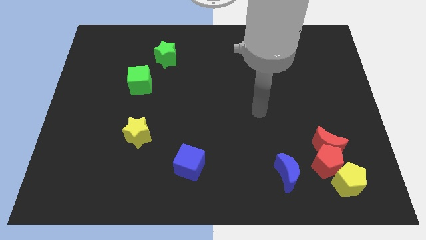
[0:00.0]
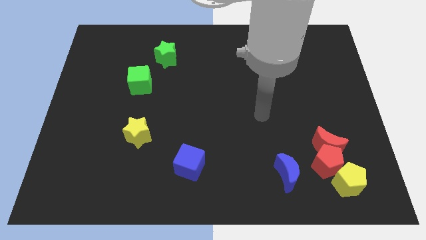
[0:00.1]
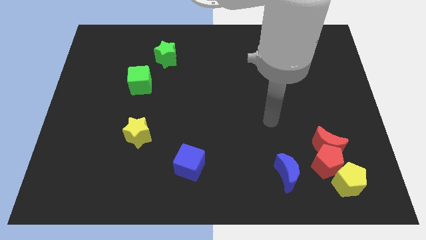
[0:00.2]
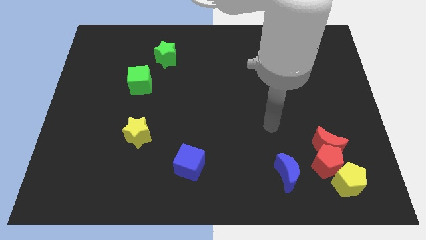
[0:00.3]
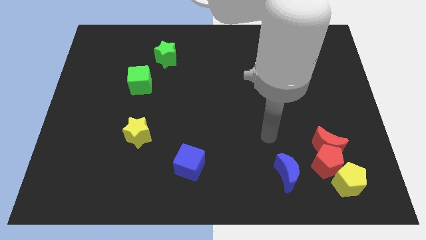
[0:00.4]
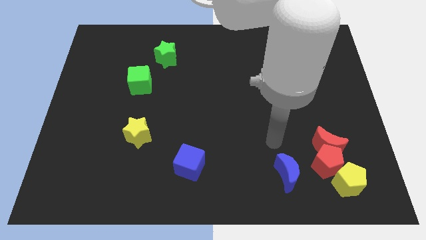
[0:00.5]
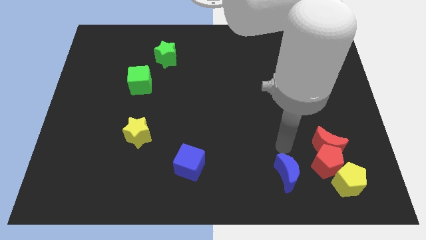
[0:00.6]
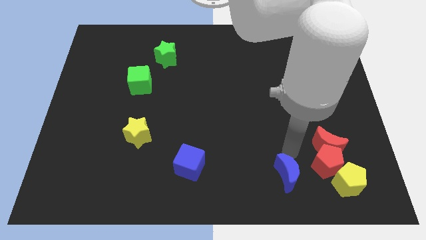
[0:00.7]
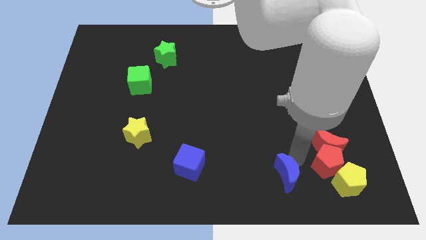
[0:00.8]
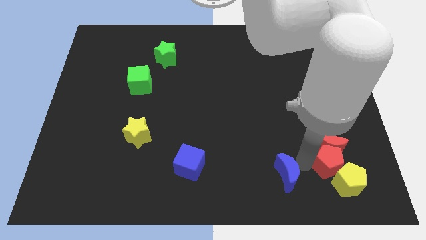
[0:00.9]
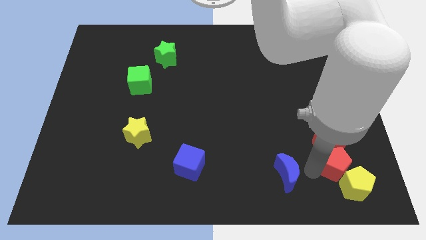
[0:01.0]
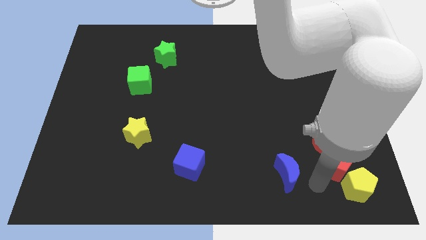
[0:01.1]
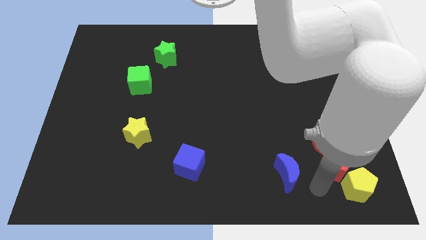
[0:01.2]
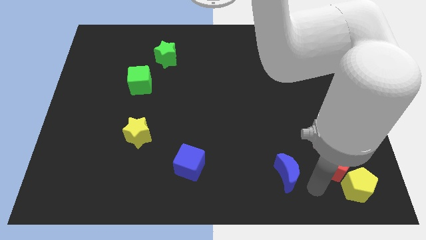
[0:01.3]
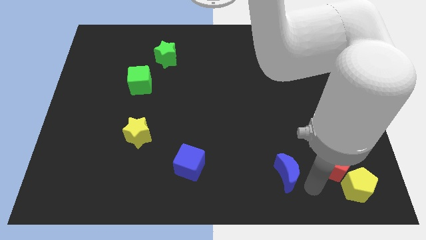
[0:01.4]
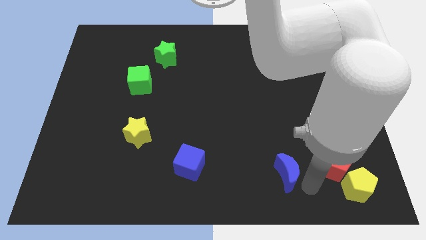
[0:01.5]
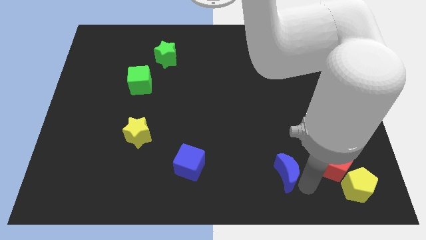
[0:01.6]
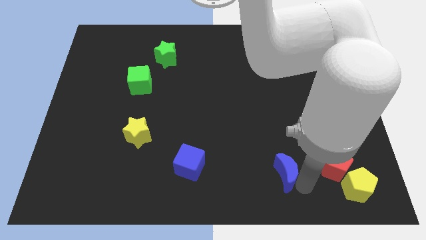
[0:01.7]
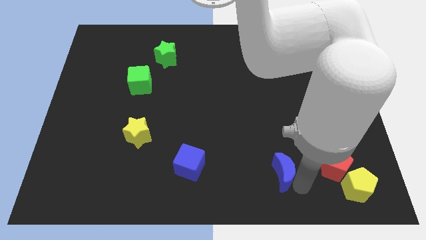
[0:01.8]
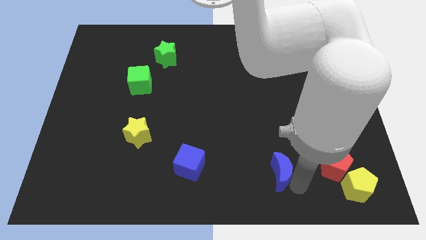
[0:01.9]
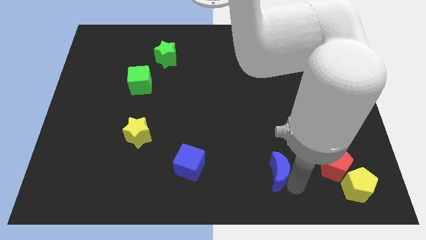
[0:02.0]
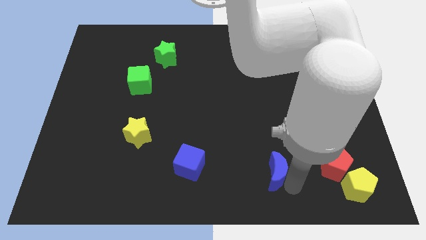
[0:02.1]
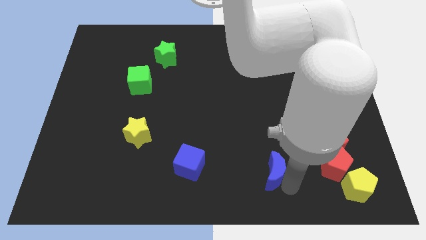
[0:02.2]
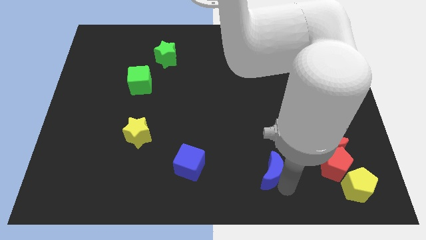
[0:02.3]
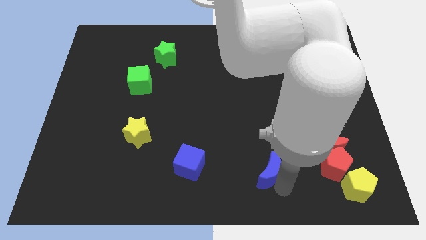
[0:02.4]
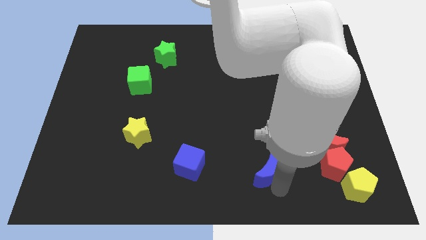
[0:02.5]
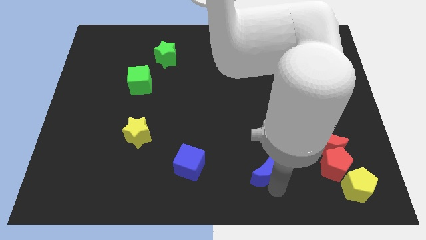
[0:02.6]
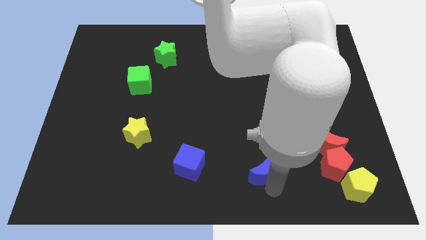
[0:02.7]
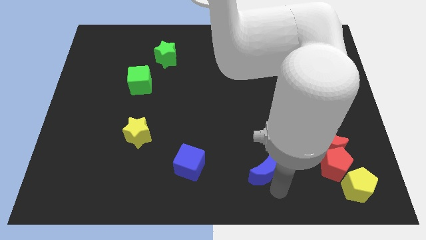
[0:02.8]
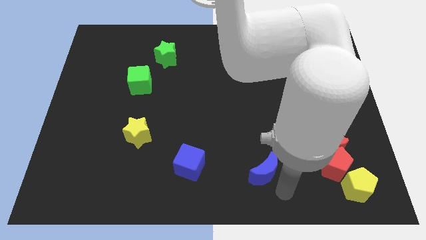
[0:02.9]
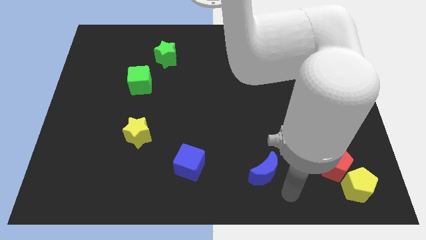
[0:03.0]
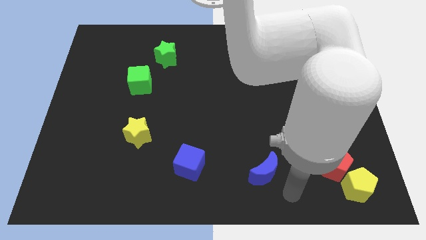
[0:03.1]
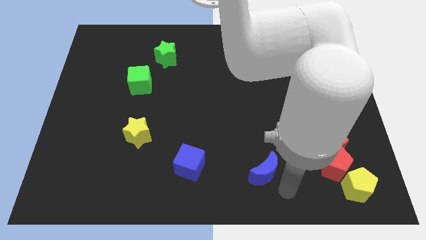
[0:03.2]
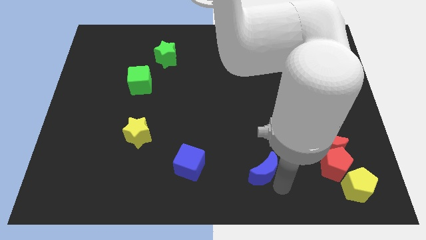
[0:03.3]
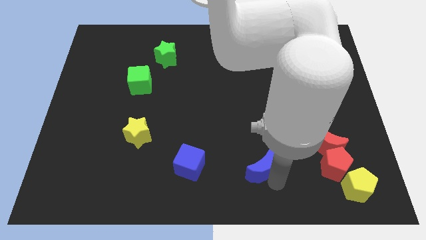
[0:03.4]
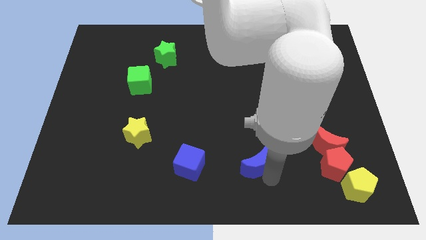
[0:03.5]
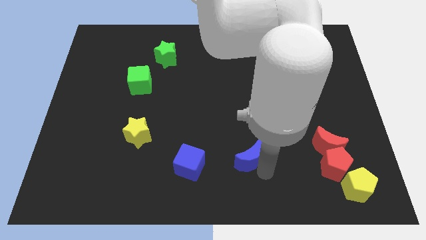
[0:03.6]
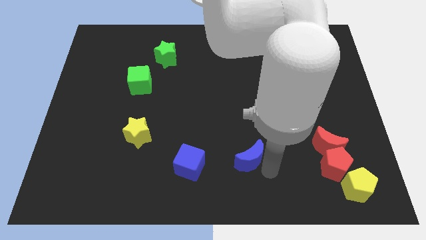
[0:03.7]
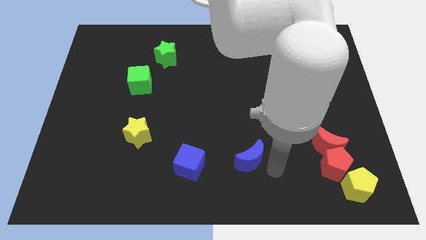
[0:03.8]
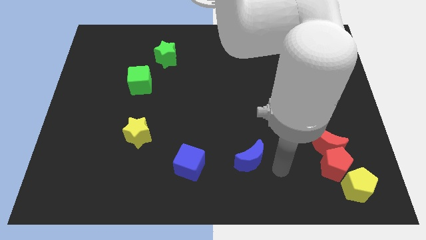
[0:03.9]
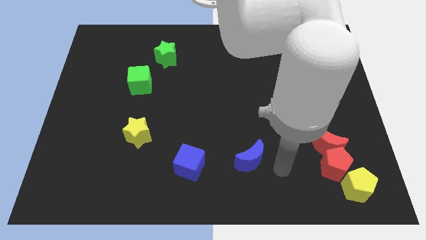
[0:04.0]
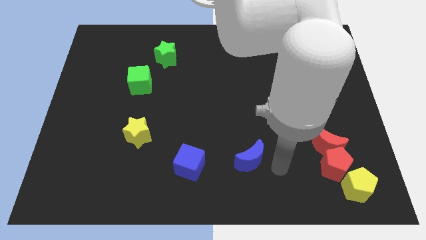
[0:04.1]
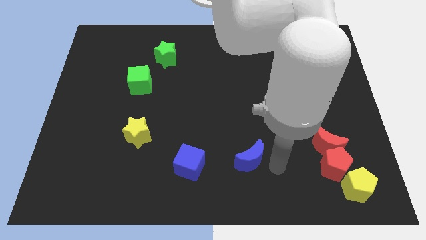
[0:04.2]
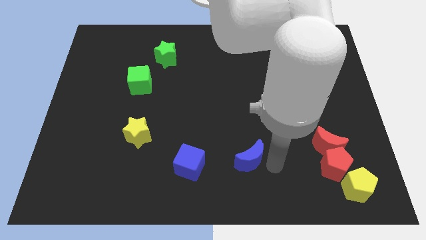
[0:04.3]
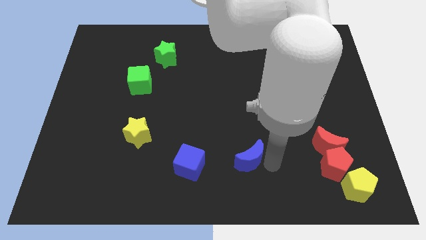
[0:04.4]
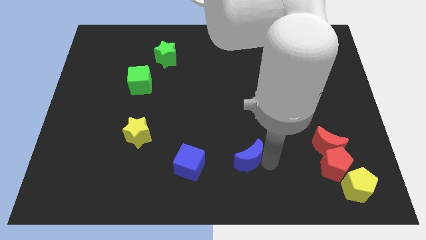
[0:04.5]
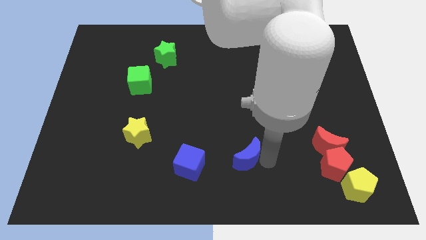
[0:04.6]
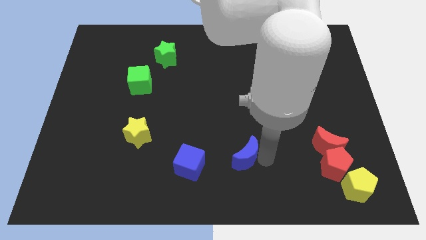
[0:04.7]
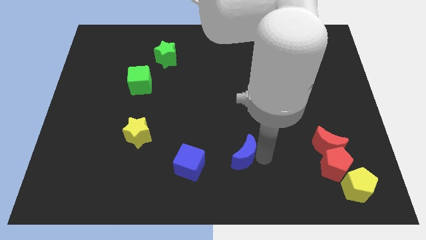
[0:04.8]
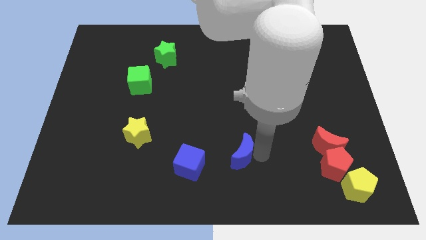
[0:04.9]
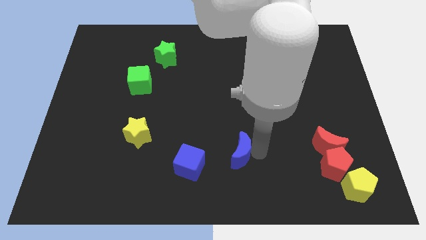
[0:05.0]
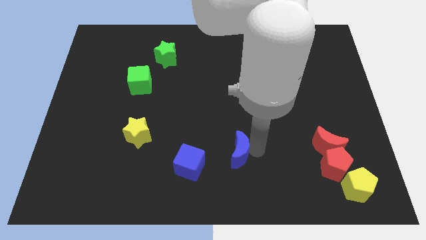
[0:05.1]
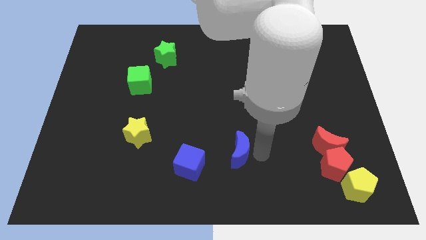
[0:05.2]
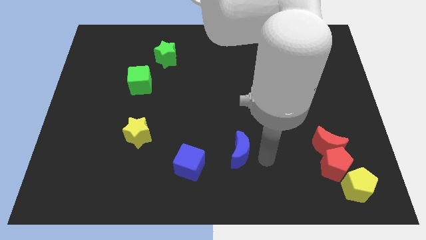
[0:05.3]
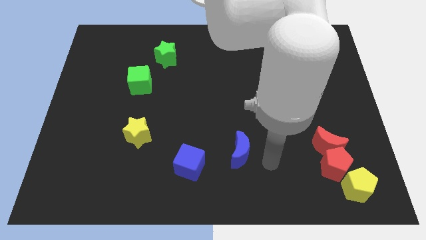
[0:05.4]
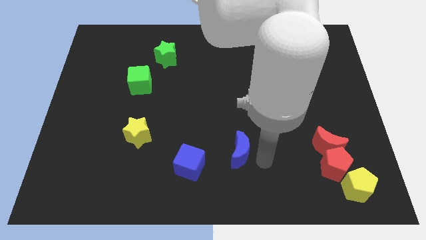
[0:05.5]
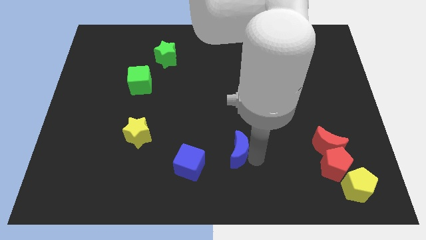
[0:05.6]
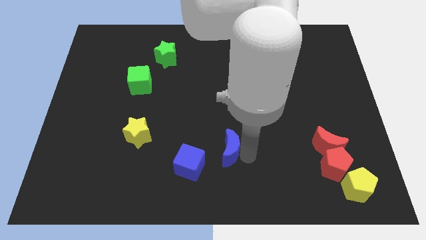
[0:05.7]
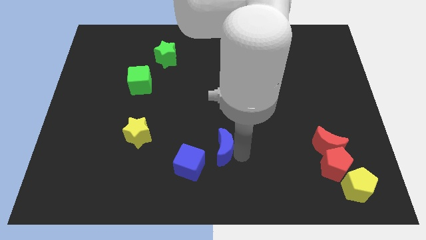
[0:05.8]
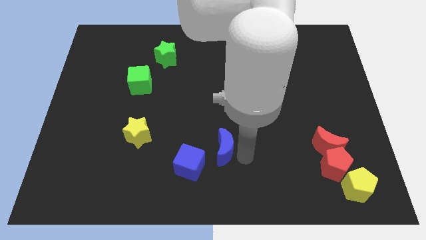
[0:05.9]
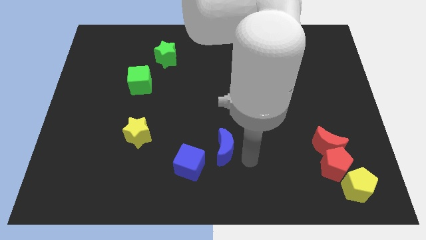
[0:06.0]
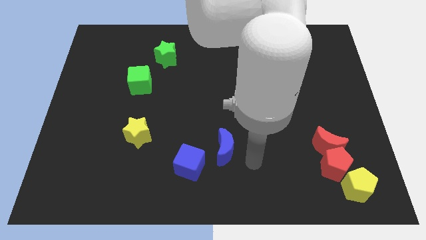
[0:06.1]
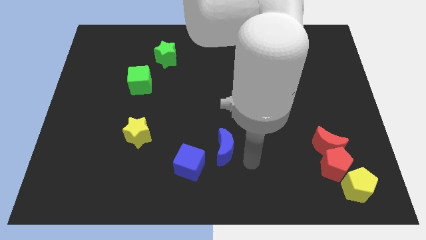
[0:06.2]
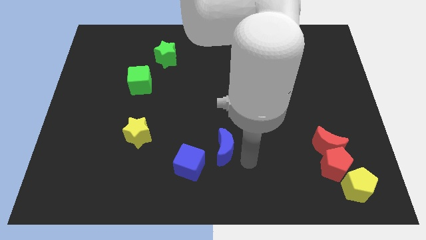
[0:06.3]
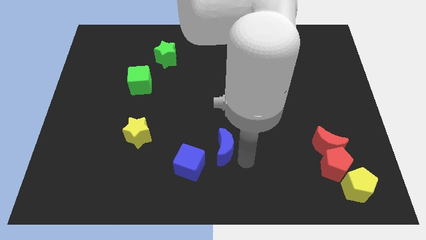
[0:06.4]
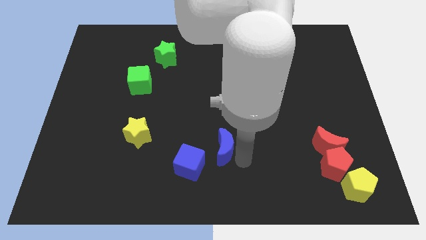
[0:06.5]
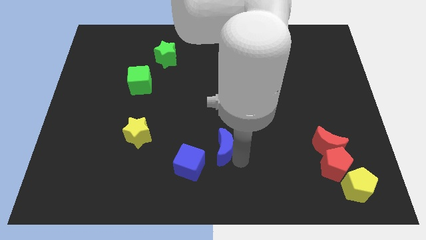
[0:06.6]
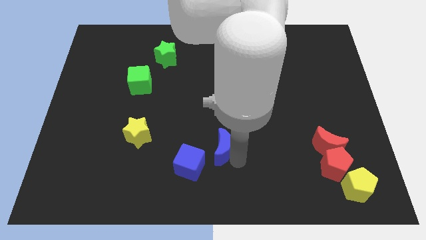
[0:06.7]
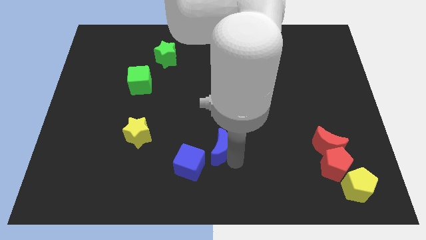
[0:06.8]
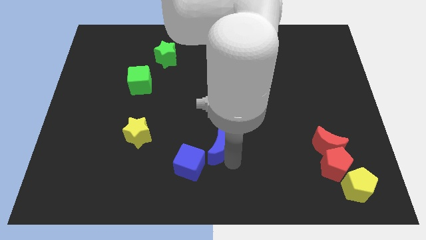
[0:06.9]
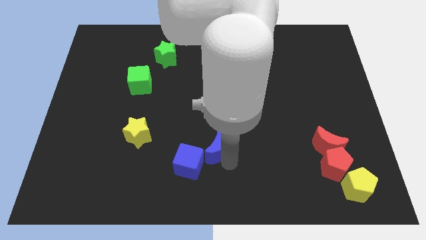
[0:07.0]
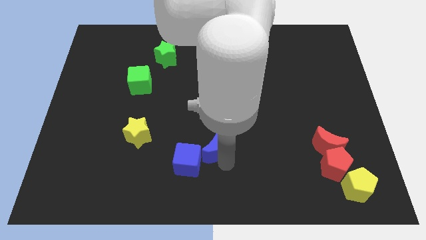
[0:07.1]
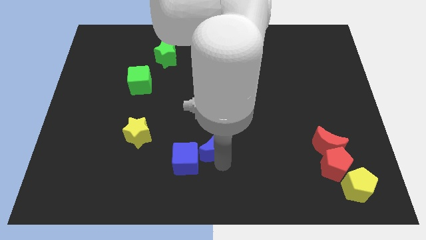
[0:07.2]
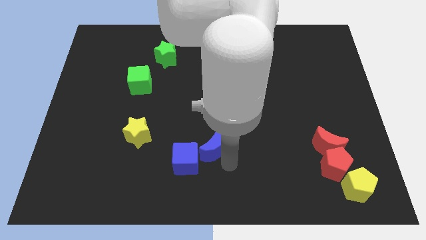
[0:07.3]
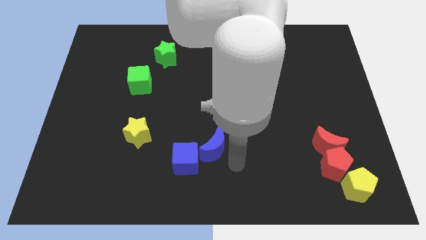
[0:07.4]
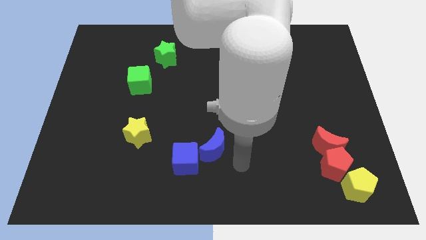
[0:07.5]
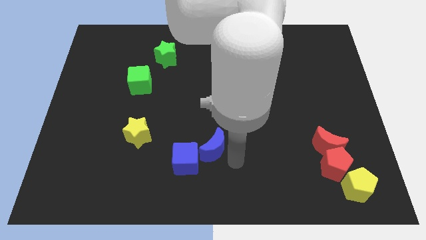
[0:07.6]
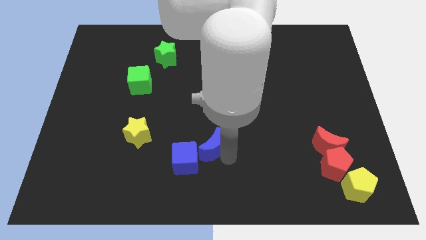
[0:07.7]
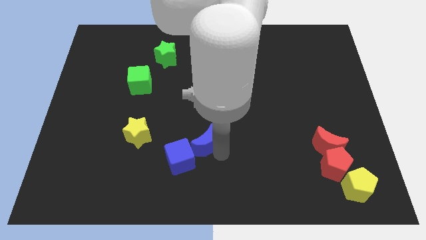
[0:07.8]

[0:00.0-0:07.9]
put the blue moon right of the yellow star
